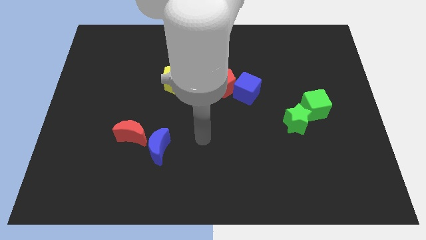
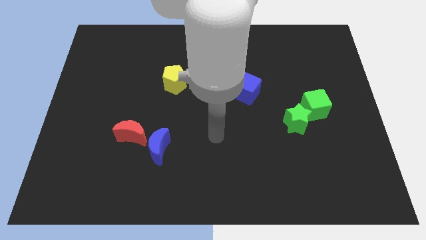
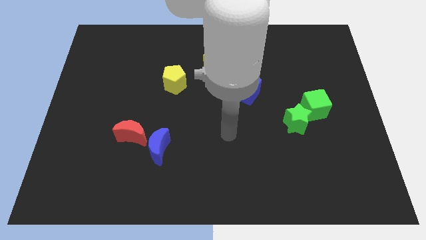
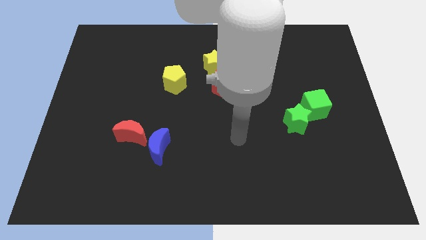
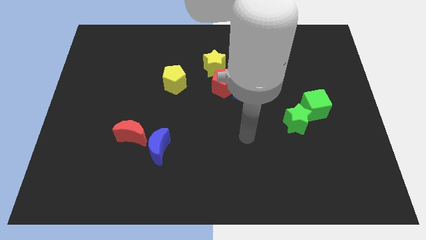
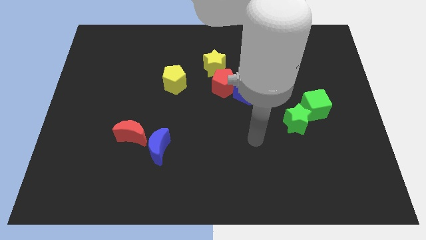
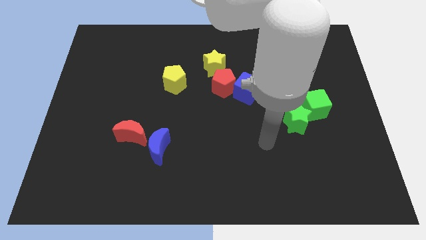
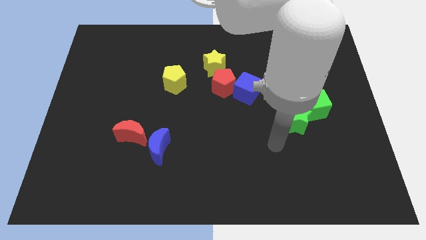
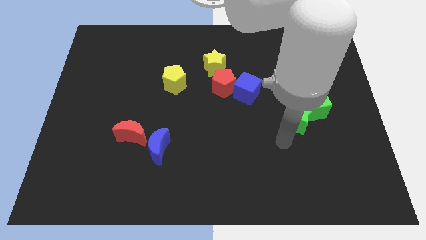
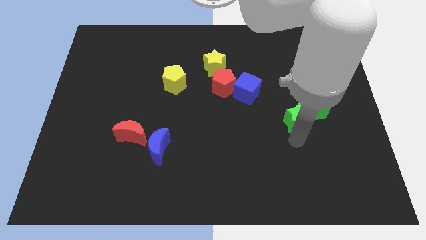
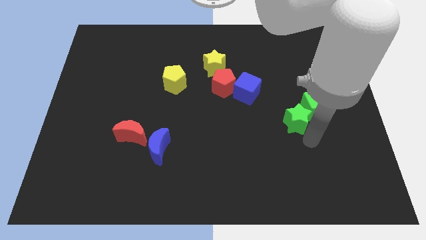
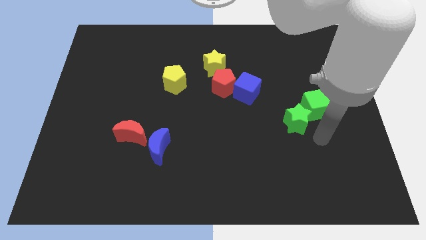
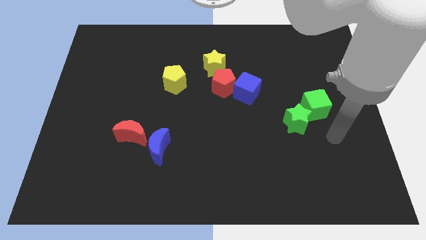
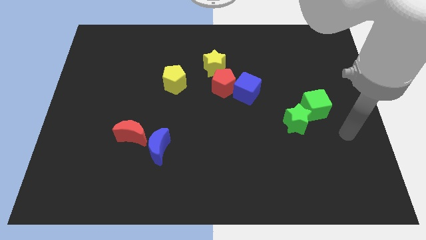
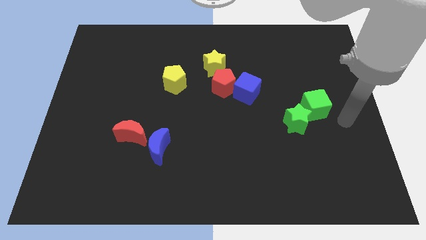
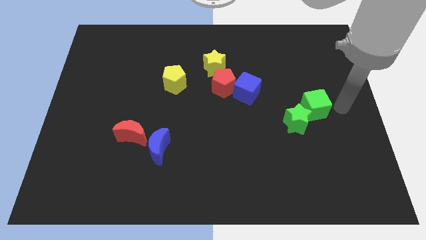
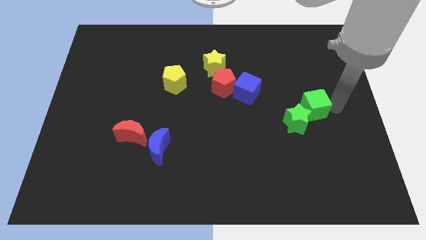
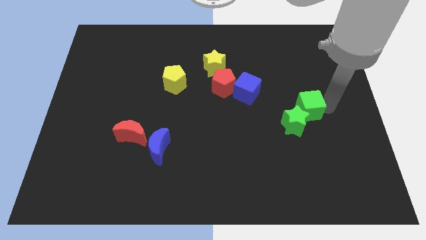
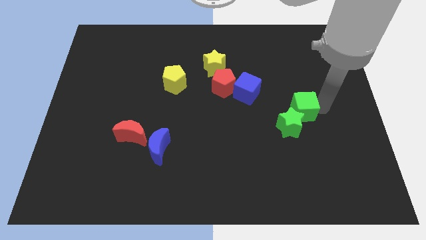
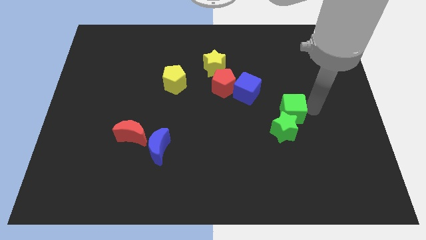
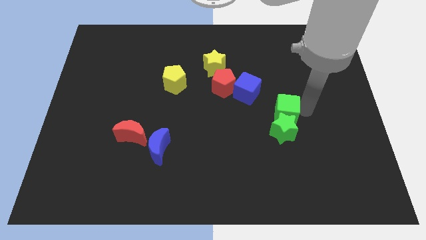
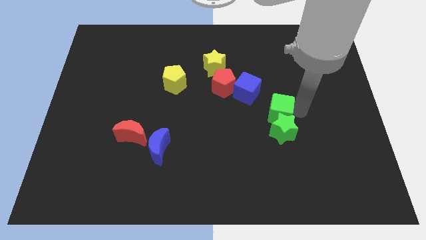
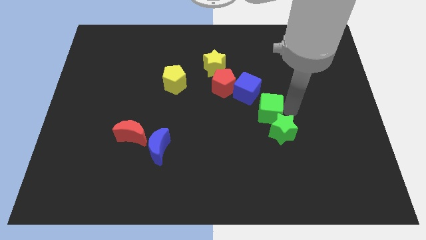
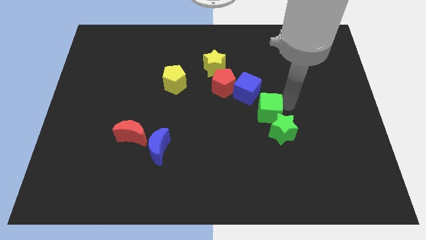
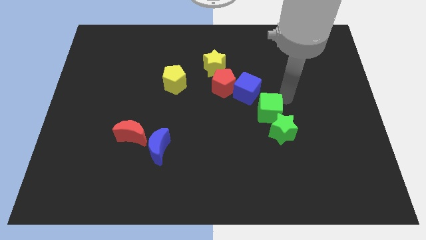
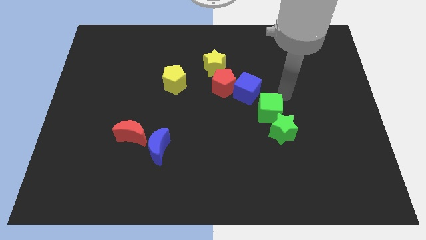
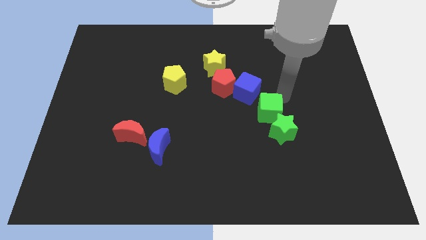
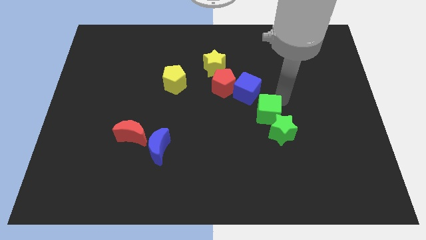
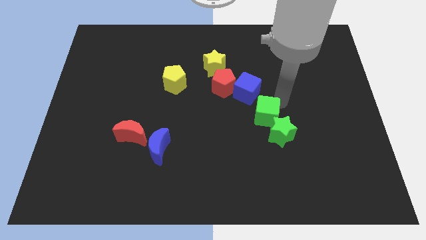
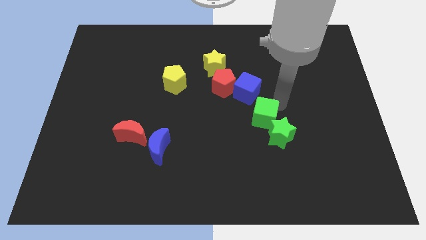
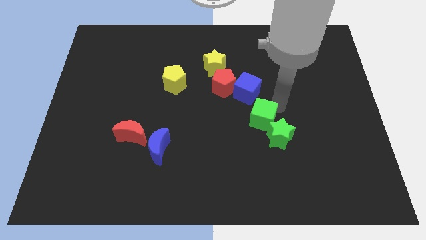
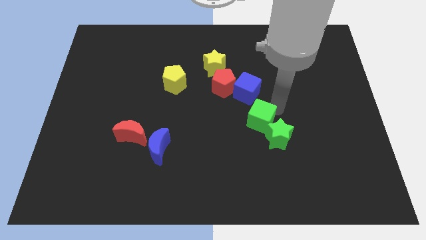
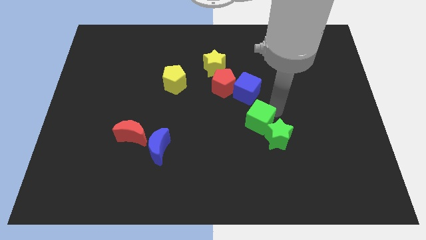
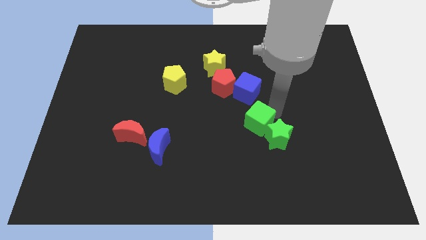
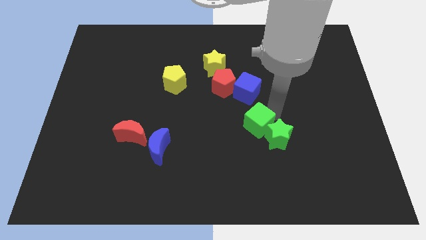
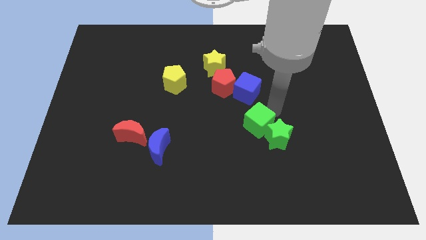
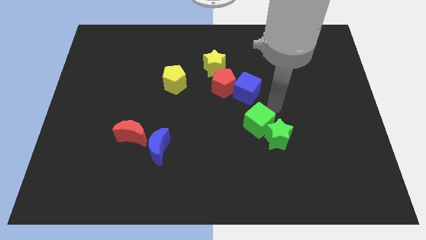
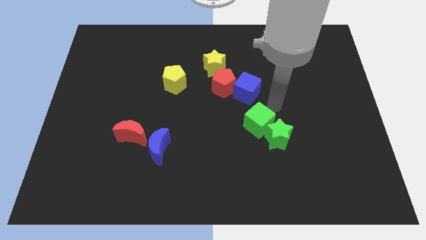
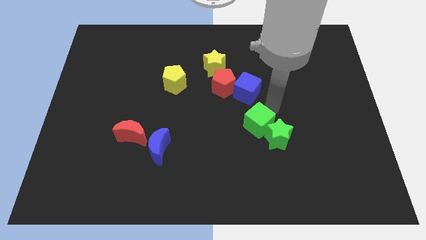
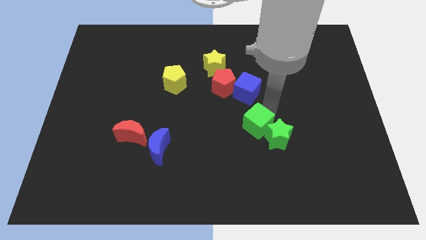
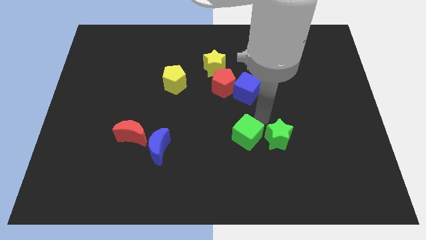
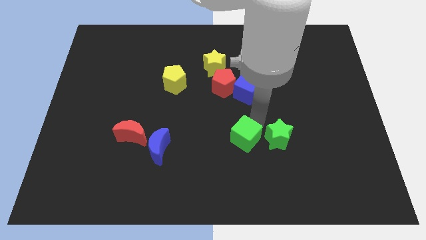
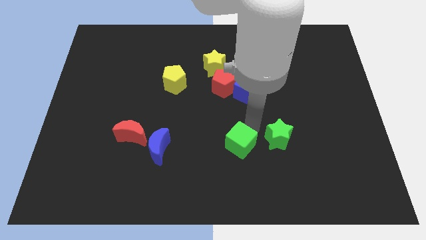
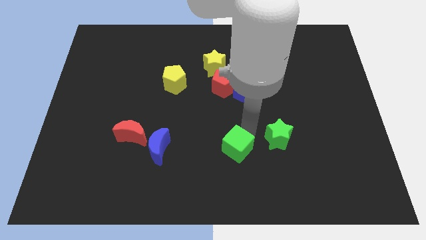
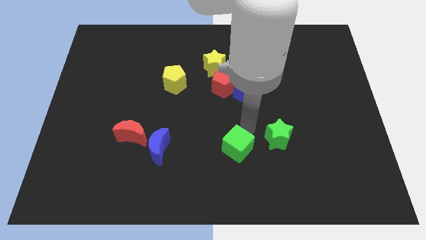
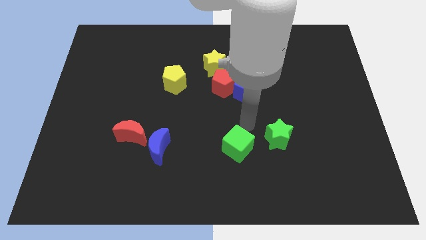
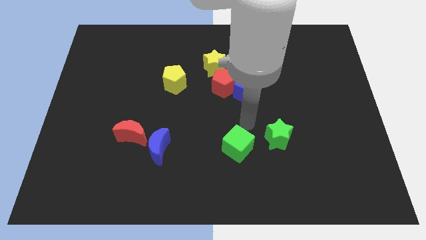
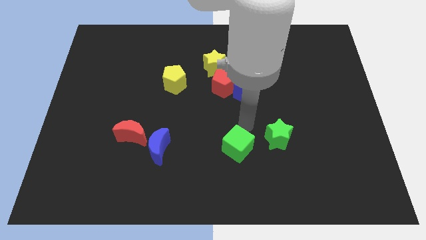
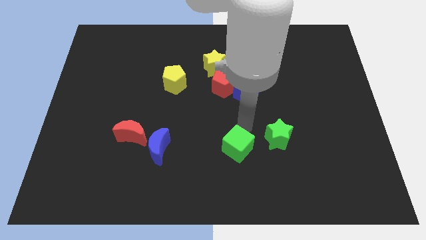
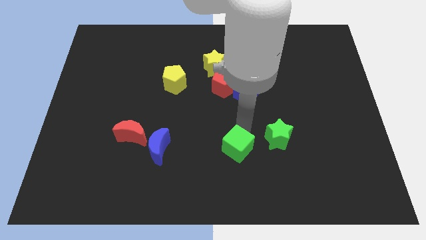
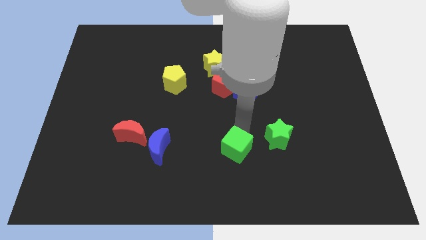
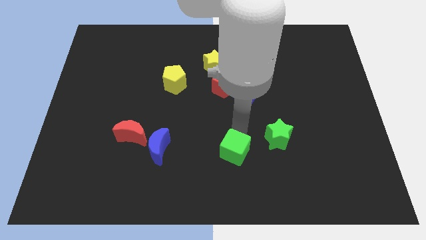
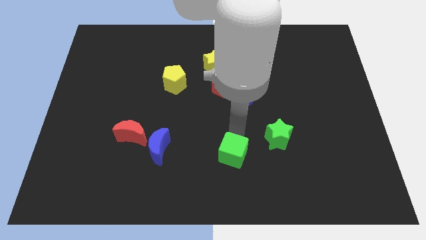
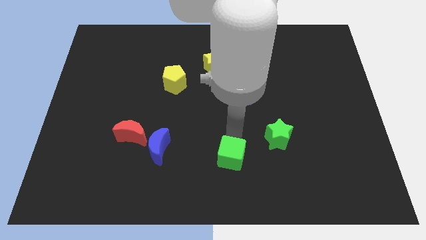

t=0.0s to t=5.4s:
slide the green cube to the bottom

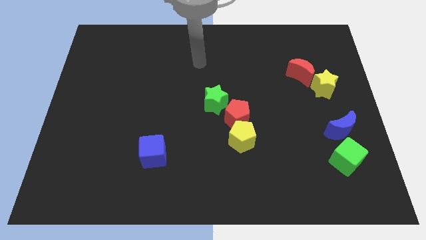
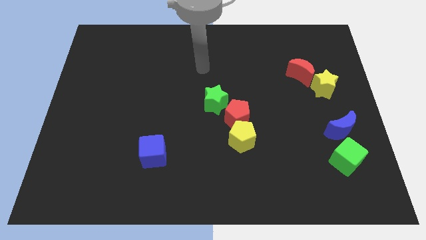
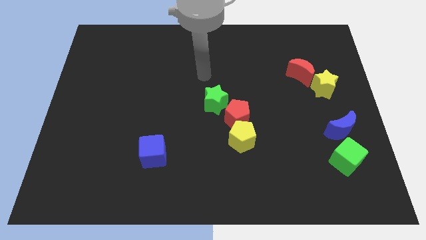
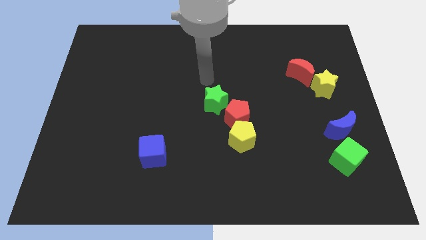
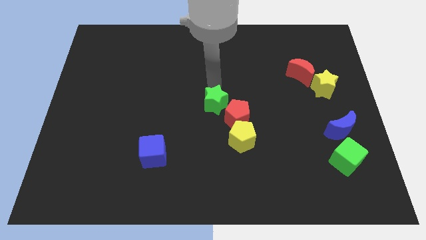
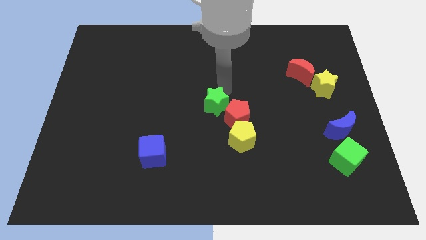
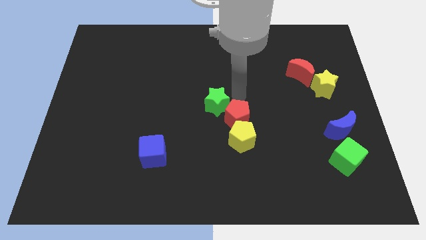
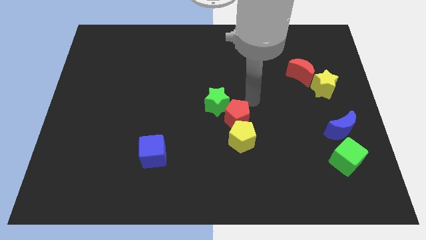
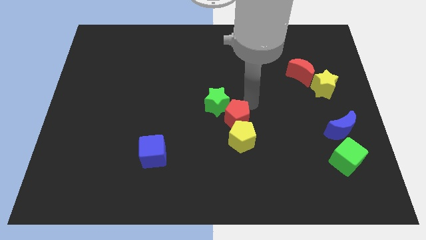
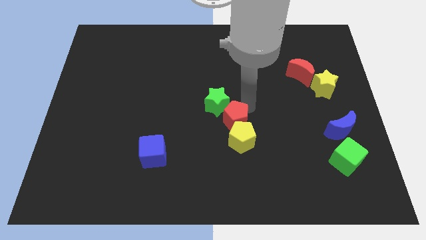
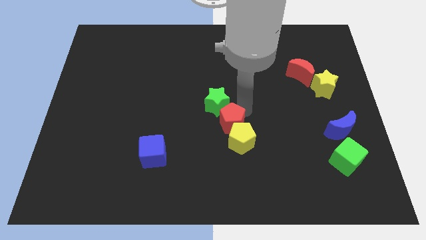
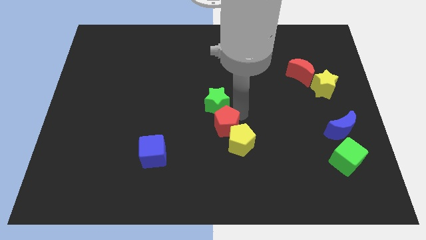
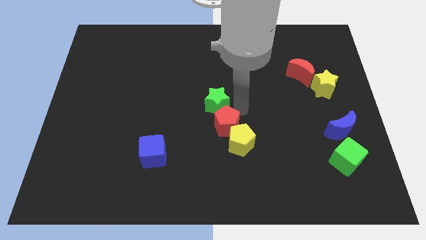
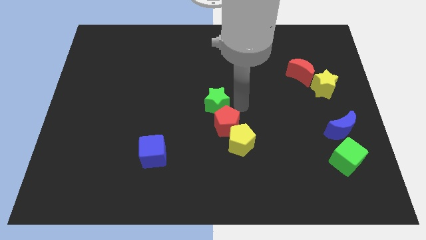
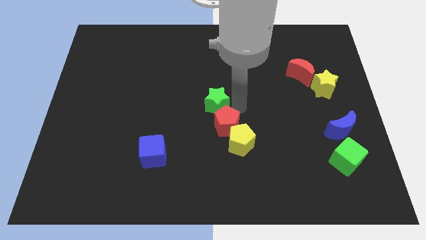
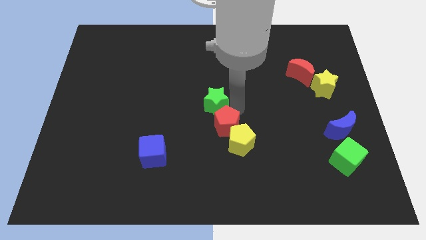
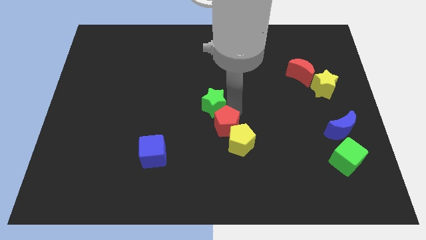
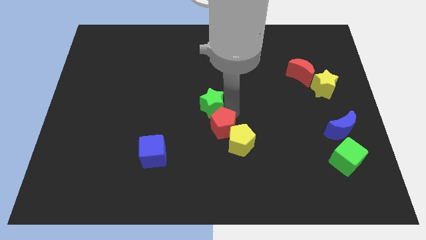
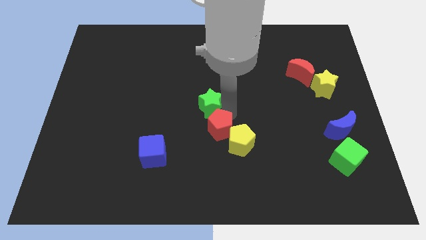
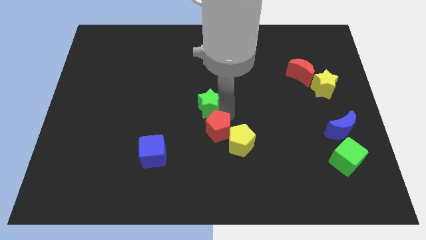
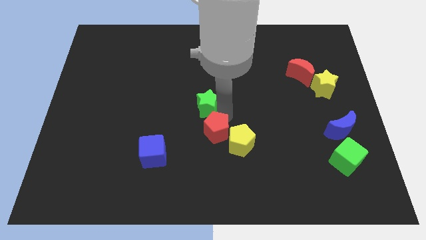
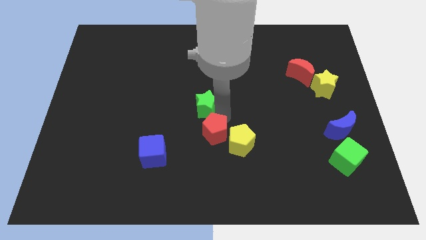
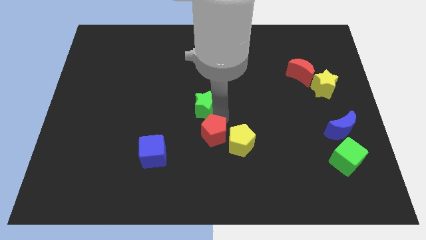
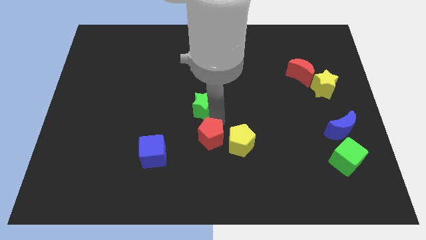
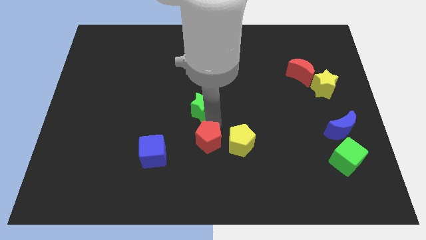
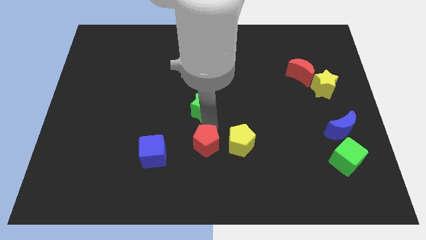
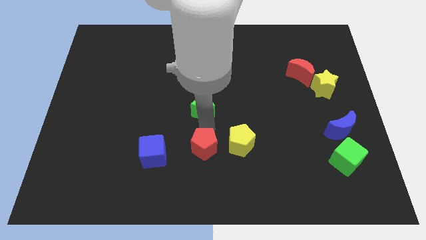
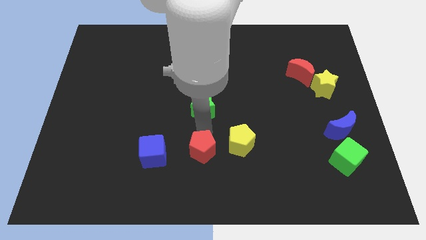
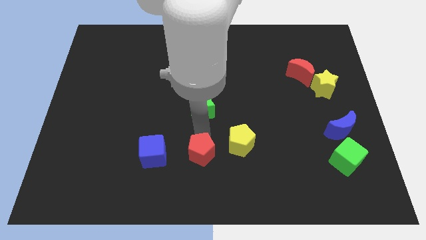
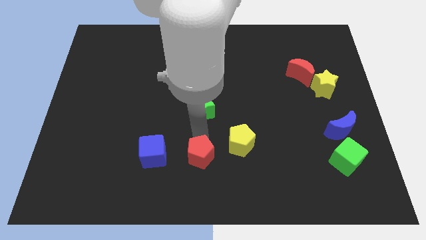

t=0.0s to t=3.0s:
move the red pentagon to the bottom
